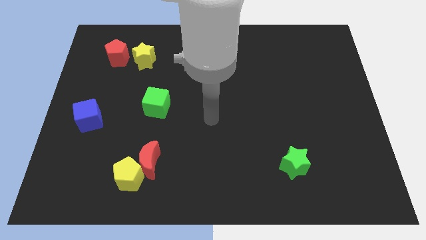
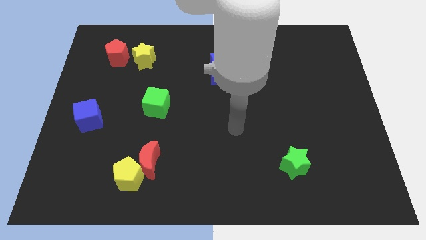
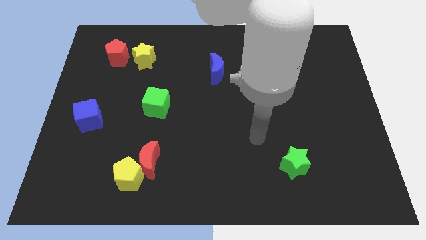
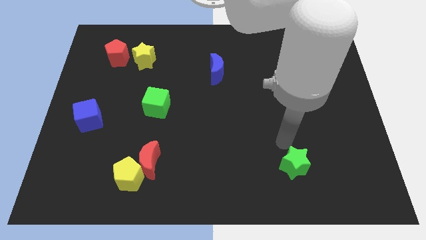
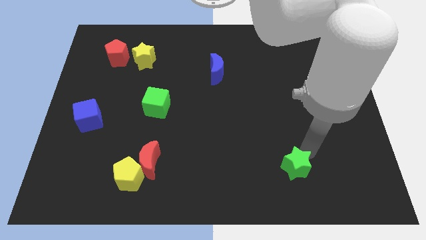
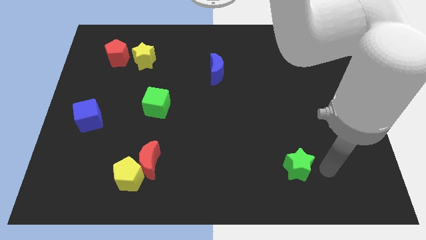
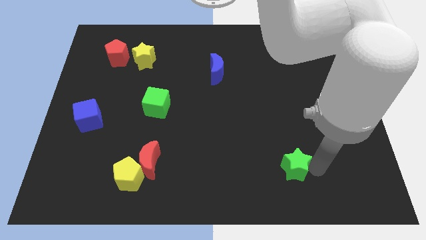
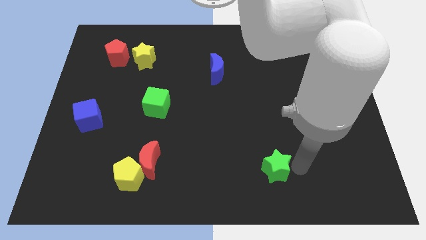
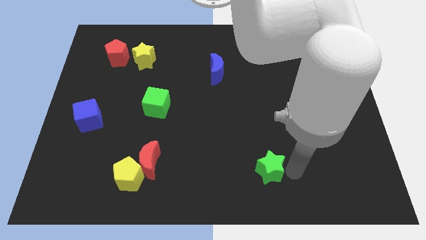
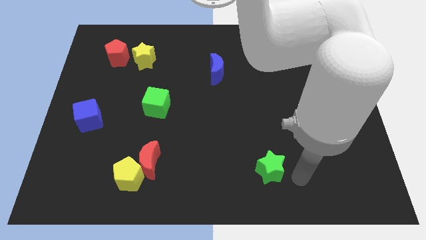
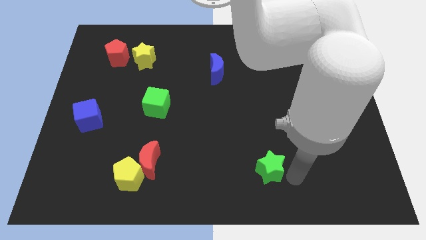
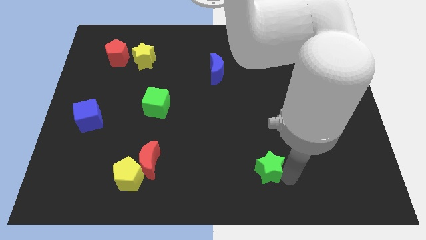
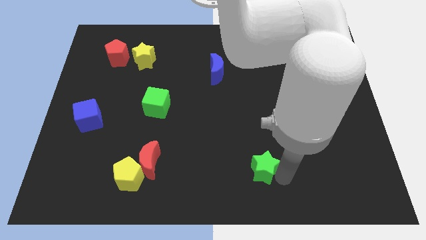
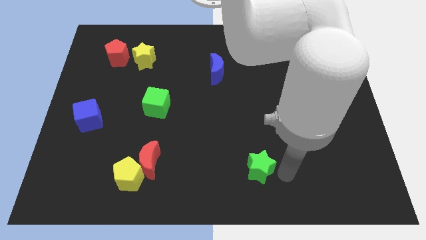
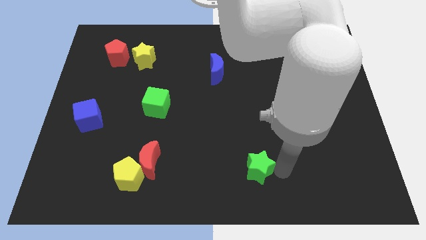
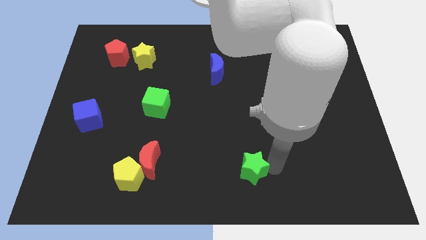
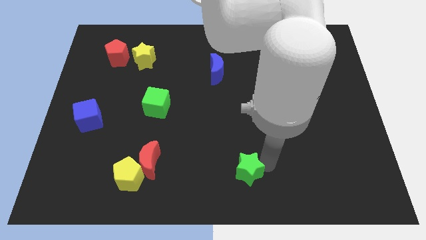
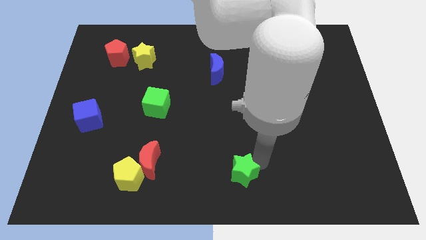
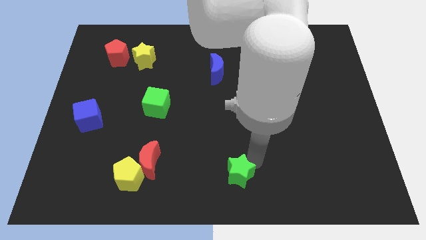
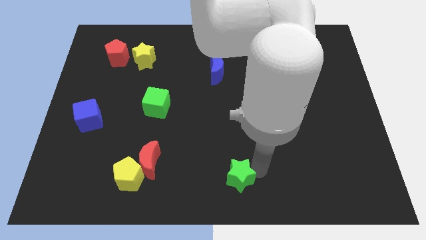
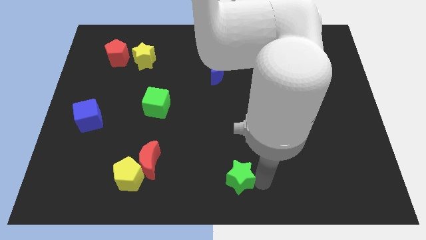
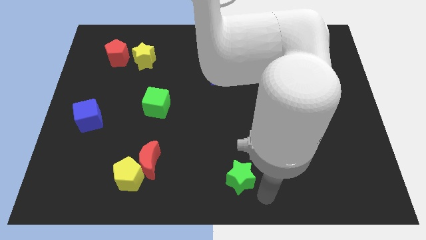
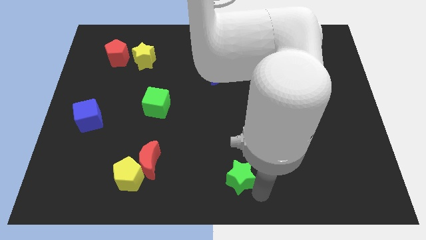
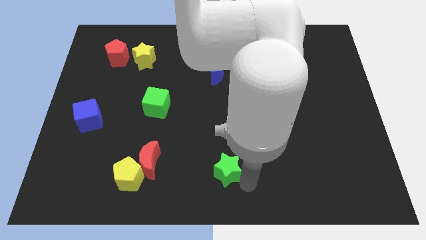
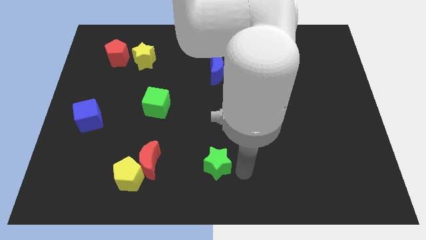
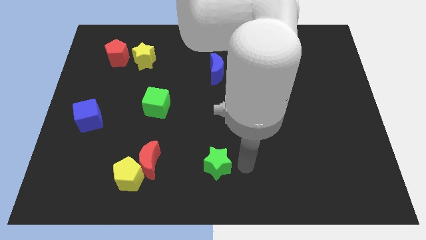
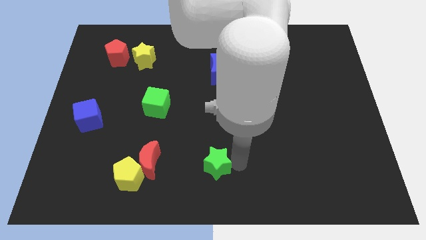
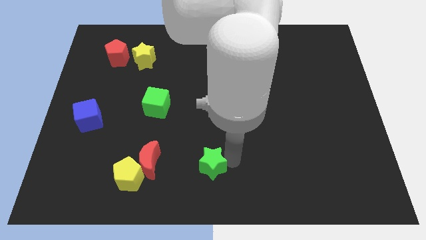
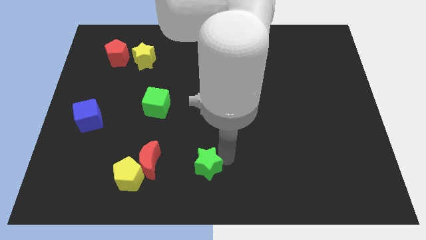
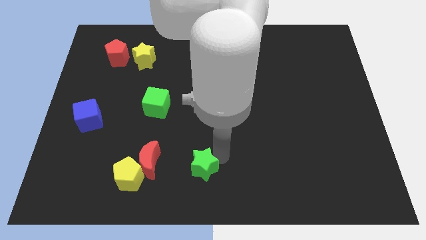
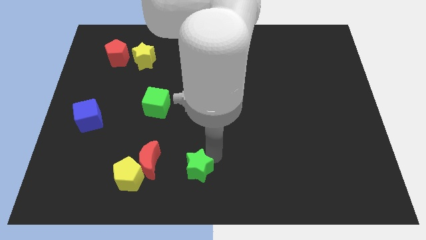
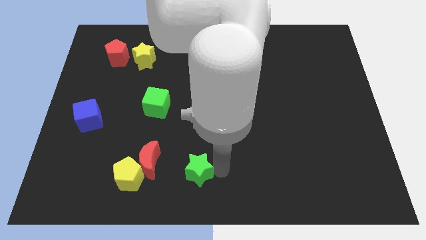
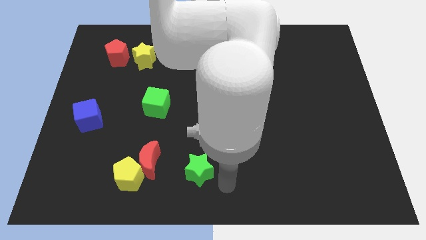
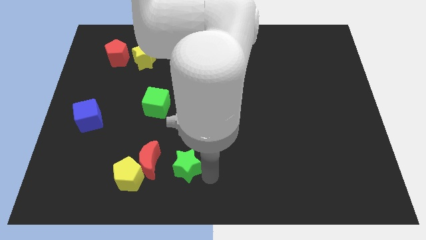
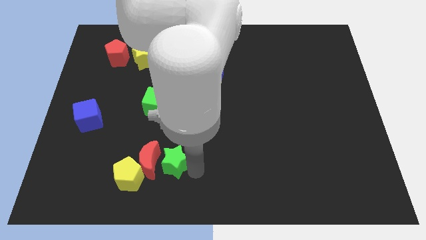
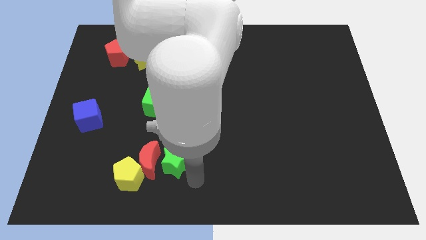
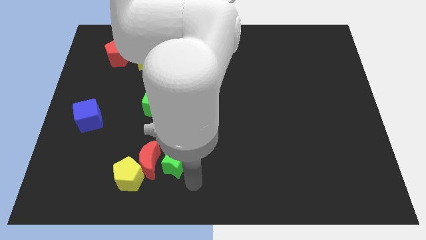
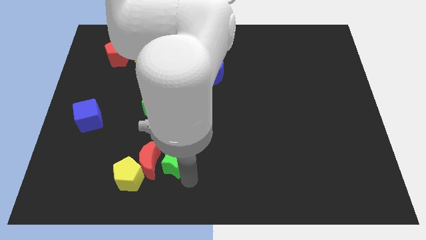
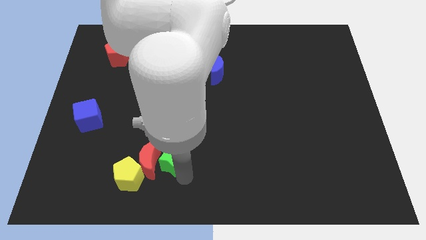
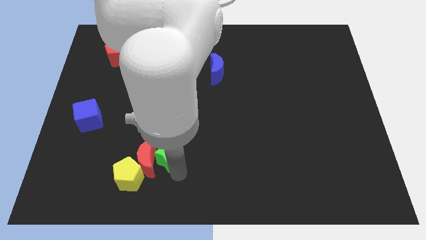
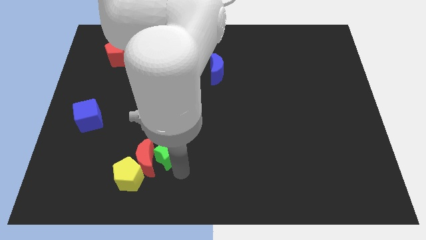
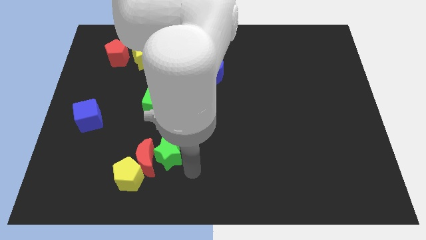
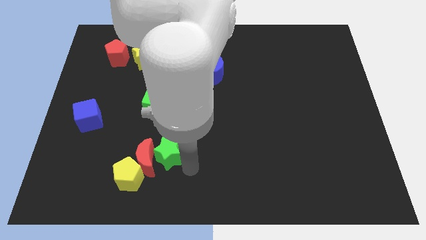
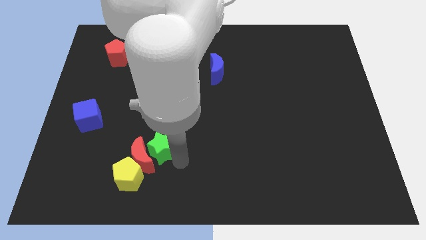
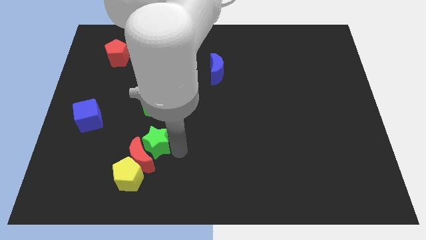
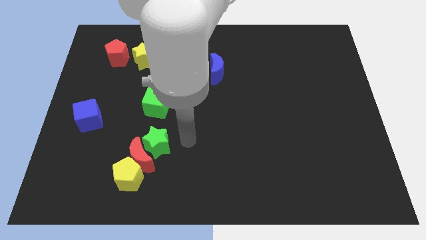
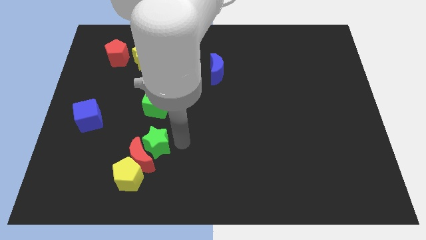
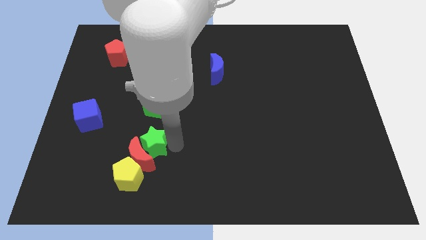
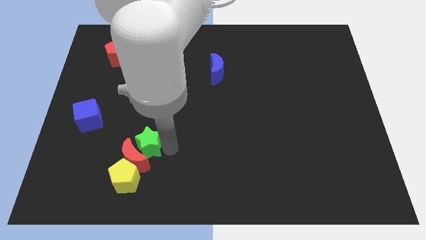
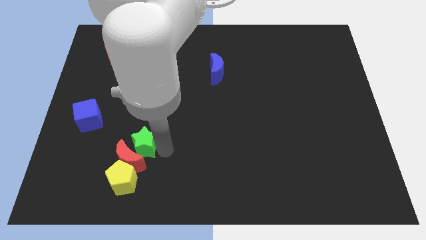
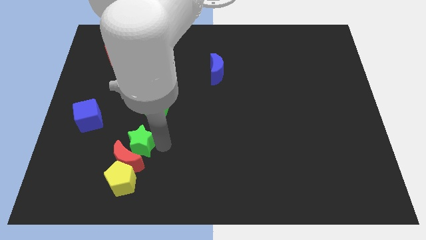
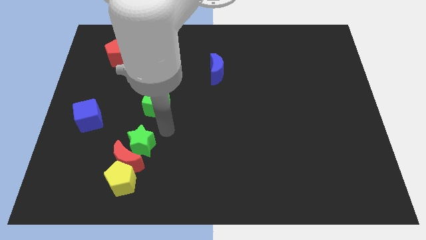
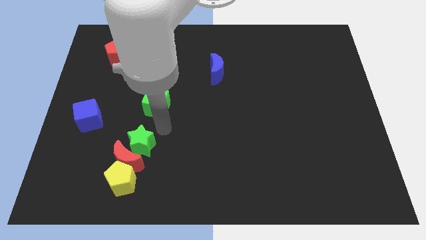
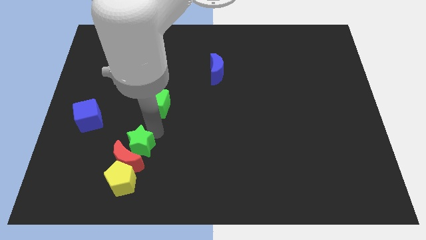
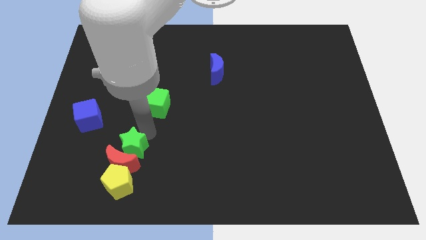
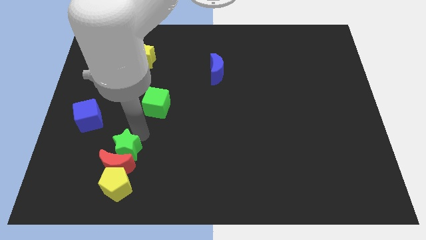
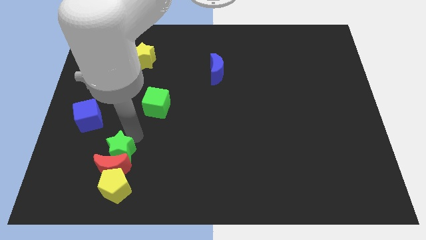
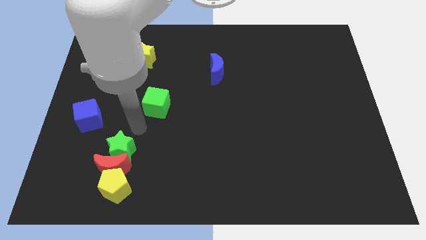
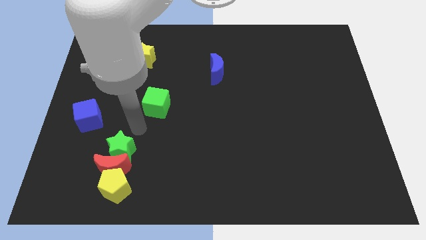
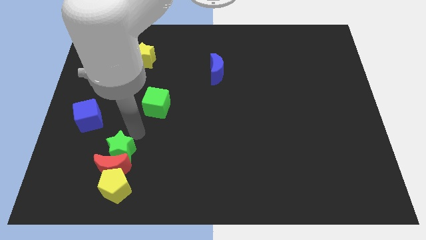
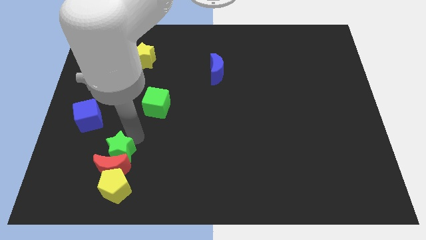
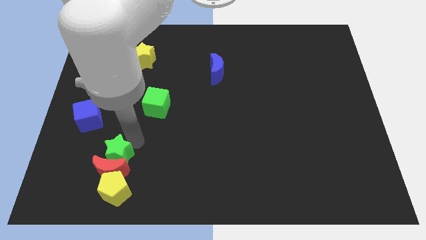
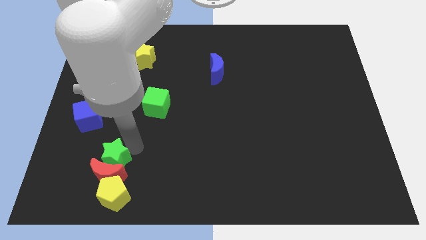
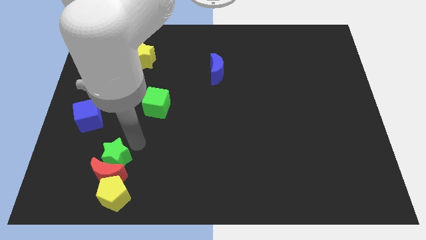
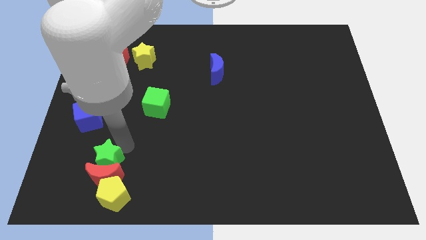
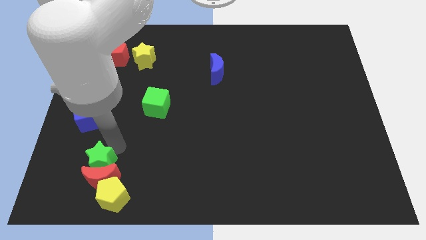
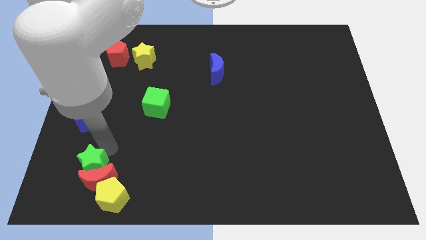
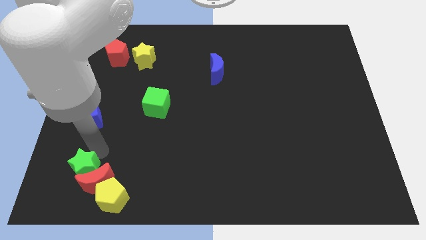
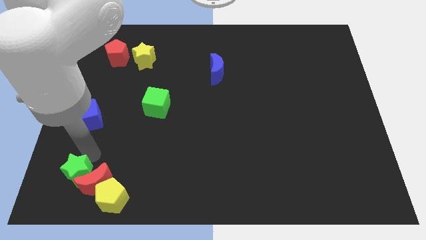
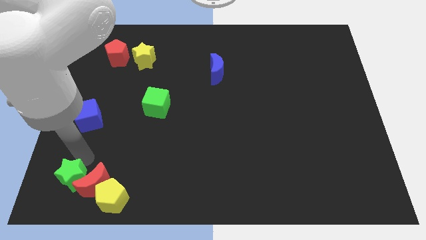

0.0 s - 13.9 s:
put the green star just left of the yellow pentagon
